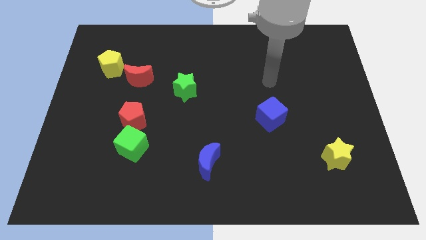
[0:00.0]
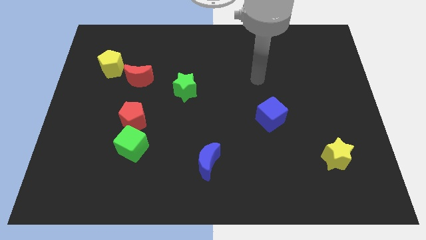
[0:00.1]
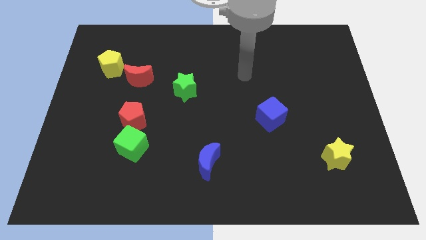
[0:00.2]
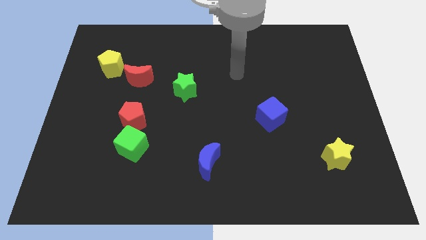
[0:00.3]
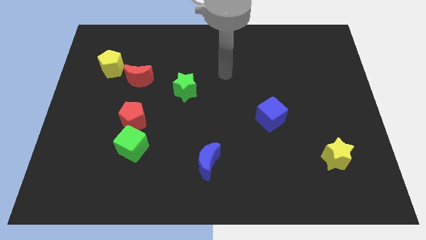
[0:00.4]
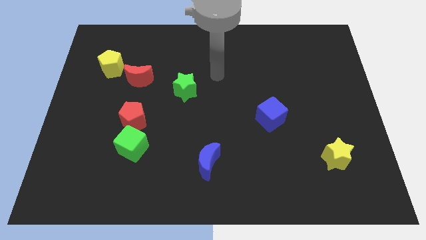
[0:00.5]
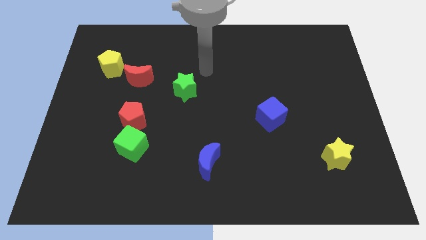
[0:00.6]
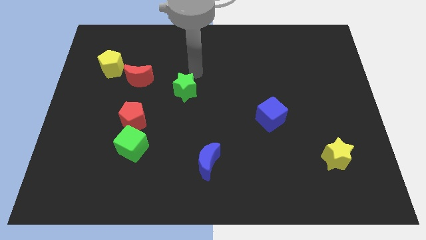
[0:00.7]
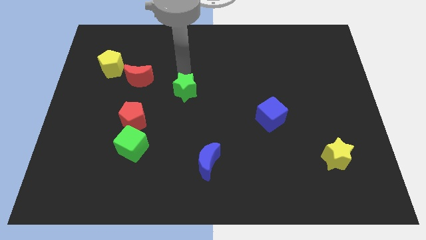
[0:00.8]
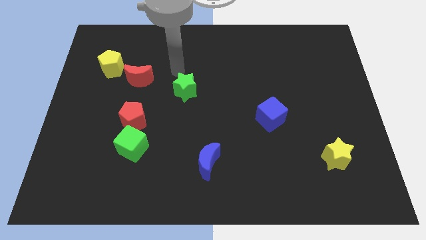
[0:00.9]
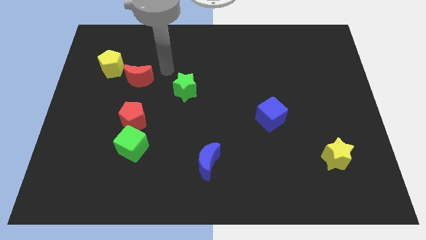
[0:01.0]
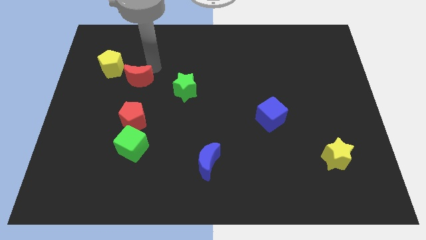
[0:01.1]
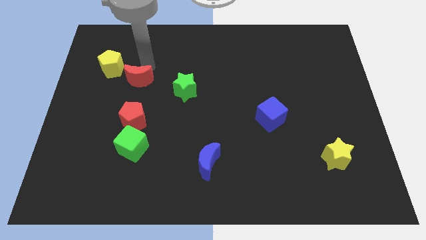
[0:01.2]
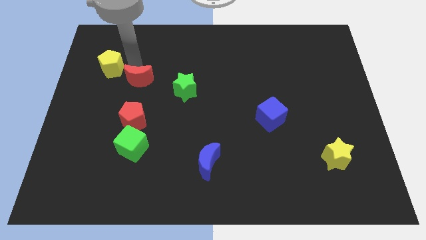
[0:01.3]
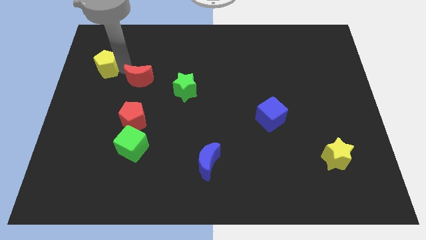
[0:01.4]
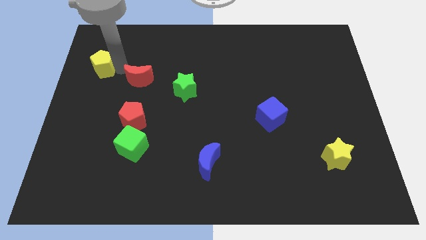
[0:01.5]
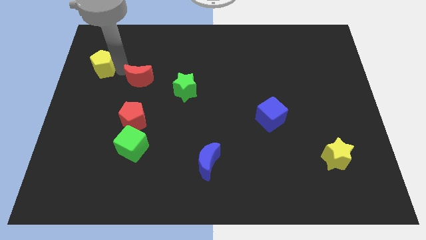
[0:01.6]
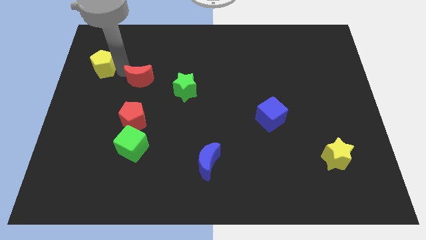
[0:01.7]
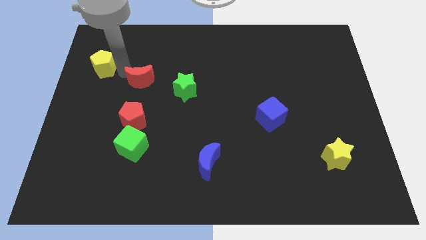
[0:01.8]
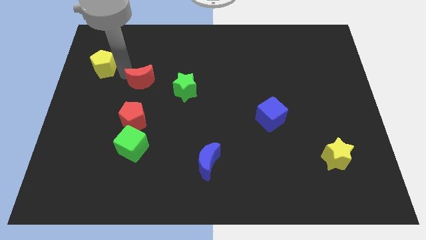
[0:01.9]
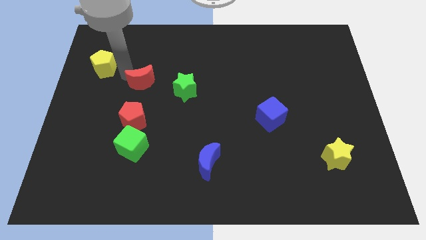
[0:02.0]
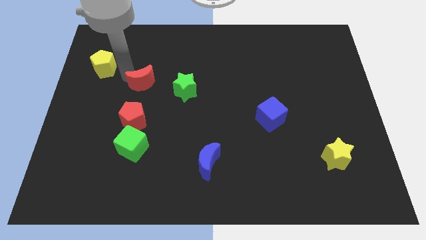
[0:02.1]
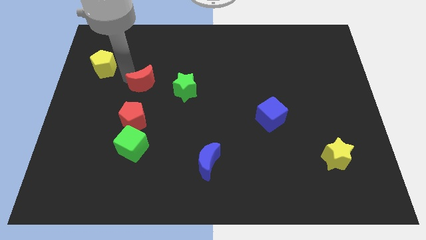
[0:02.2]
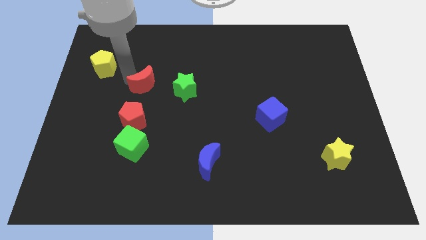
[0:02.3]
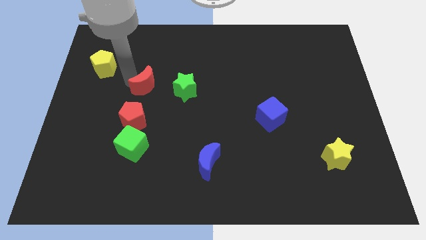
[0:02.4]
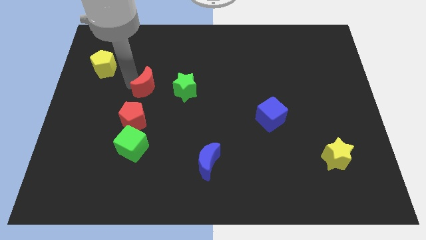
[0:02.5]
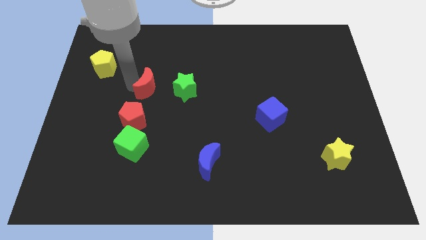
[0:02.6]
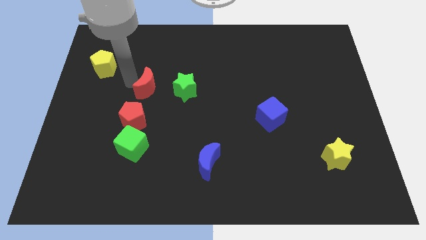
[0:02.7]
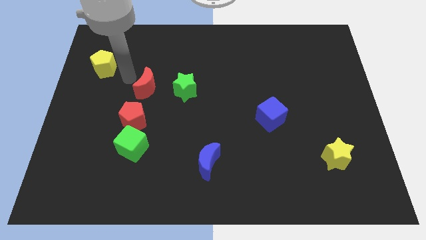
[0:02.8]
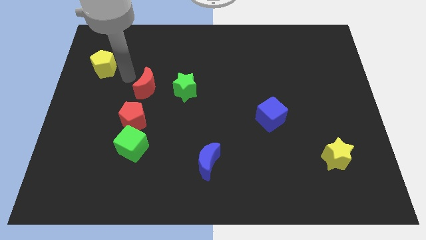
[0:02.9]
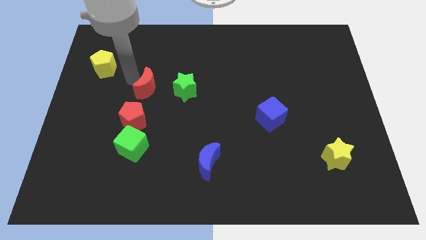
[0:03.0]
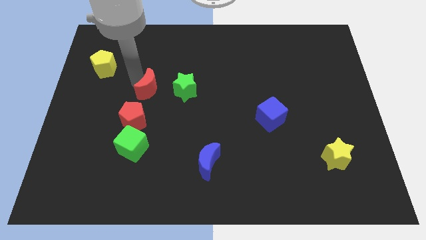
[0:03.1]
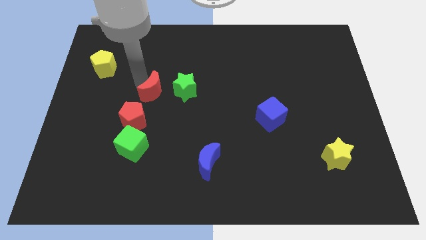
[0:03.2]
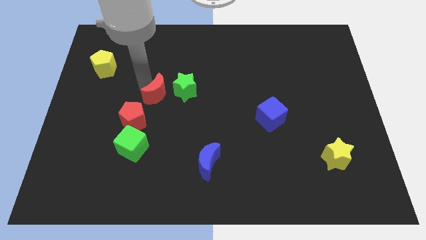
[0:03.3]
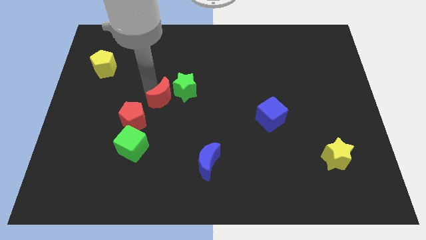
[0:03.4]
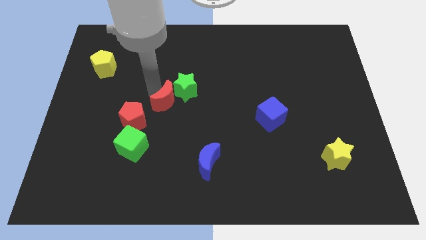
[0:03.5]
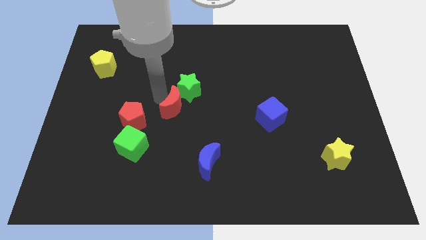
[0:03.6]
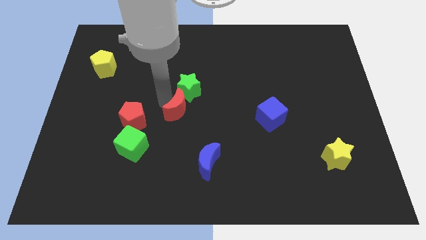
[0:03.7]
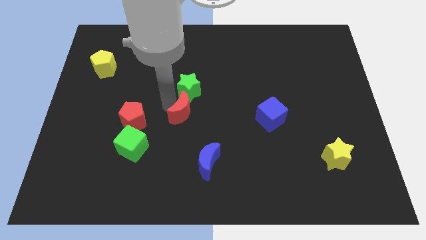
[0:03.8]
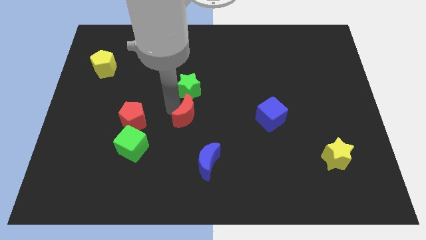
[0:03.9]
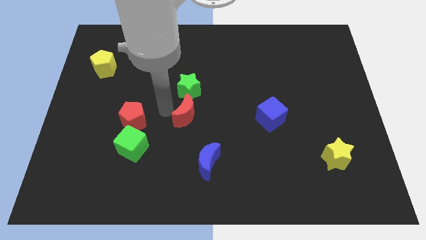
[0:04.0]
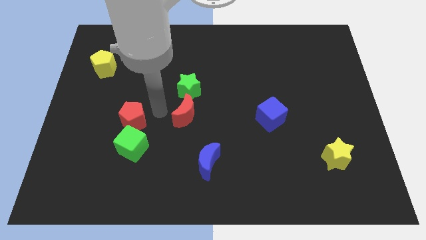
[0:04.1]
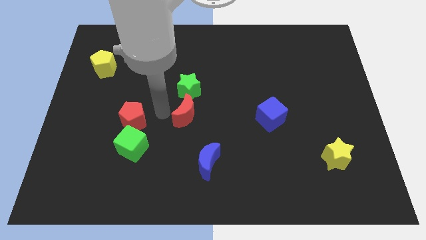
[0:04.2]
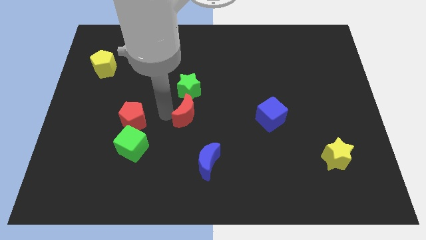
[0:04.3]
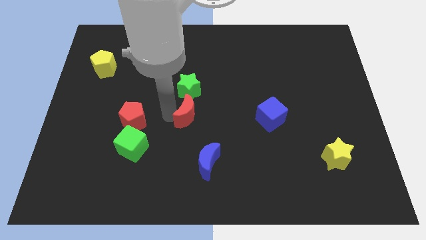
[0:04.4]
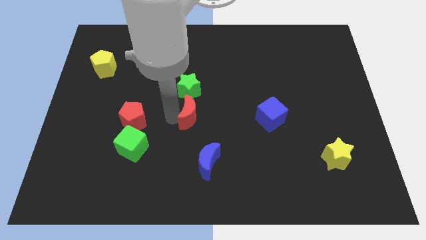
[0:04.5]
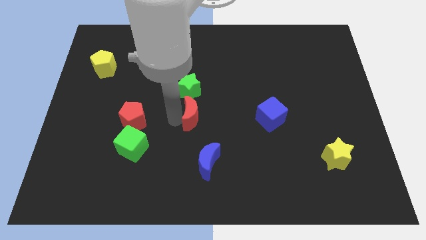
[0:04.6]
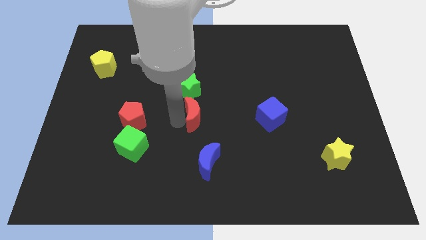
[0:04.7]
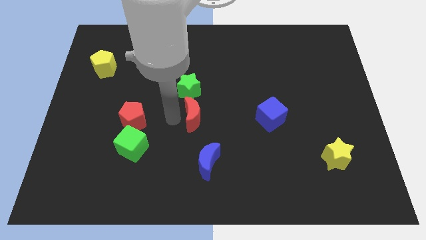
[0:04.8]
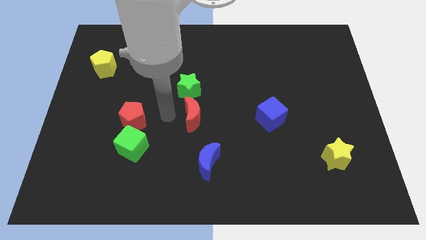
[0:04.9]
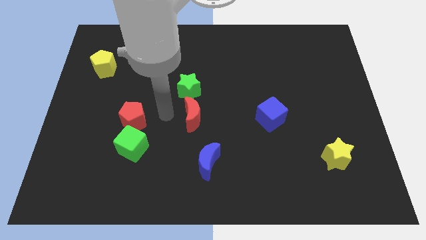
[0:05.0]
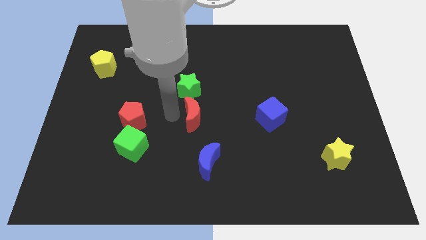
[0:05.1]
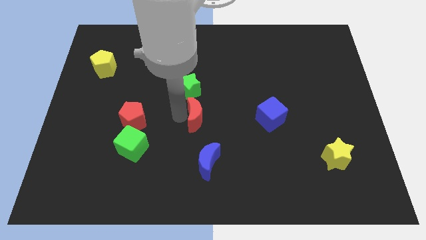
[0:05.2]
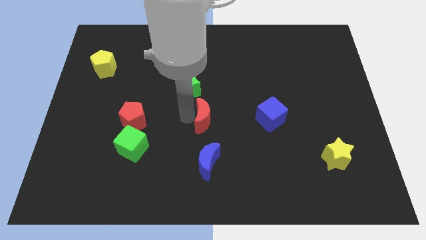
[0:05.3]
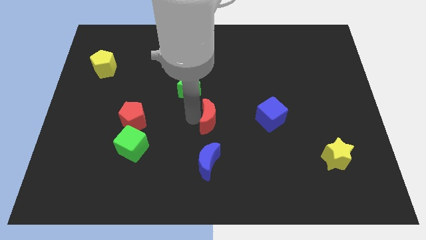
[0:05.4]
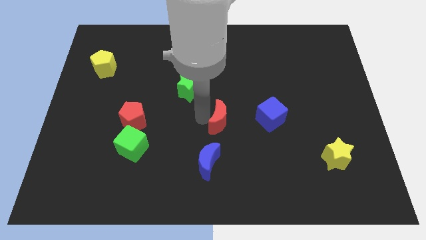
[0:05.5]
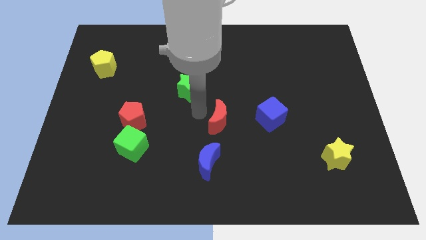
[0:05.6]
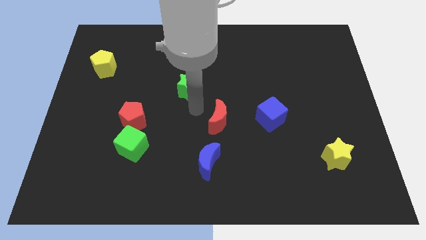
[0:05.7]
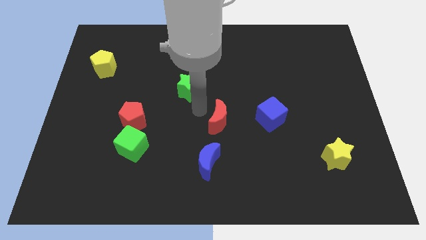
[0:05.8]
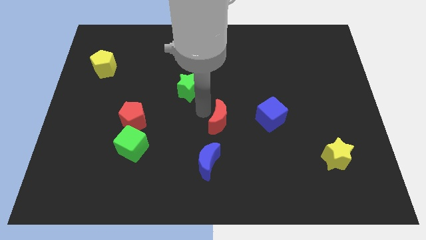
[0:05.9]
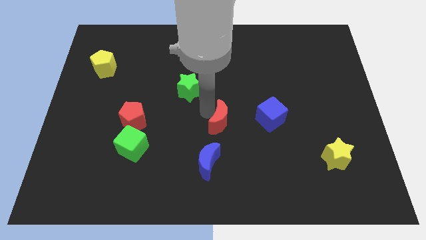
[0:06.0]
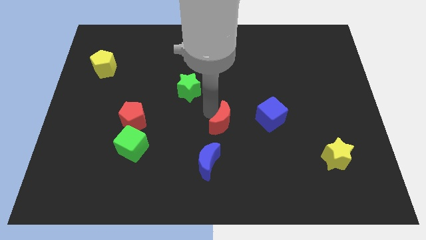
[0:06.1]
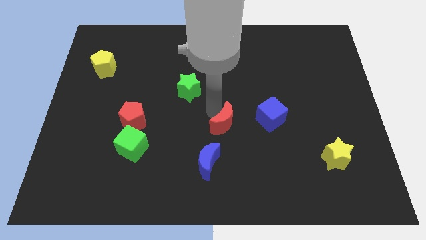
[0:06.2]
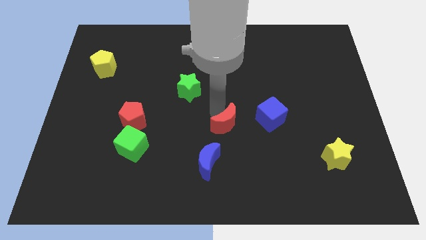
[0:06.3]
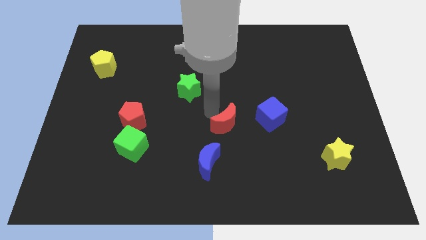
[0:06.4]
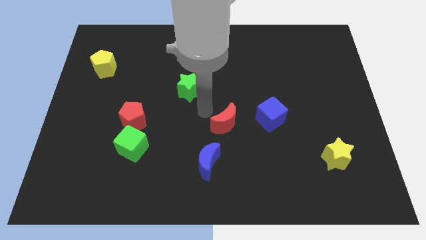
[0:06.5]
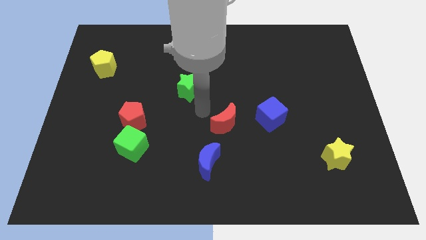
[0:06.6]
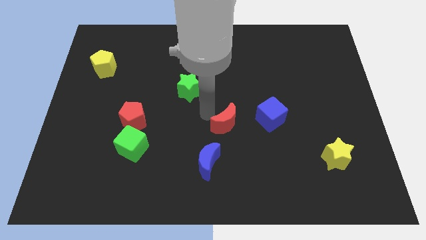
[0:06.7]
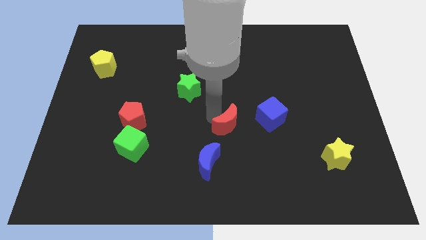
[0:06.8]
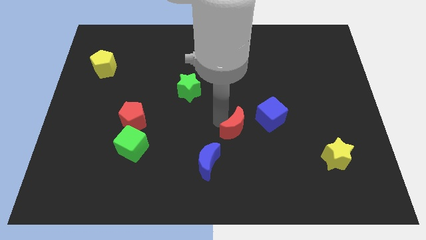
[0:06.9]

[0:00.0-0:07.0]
slide the red moon to the bottom left side of the blue cube
